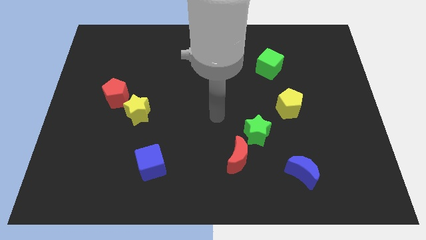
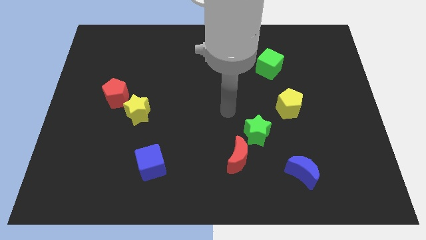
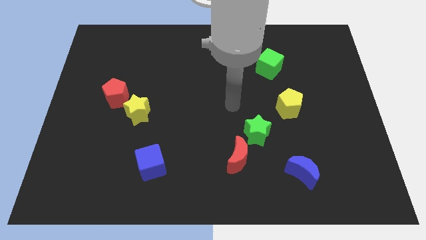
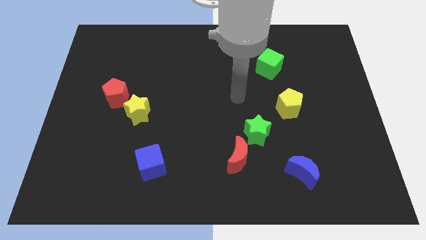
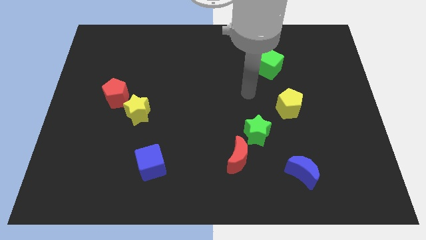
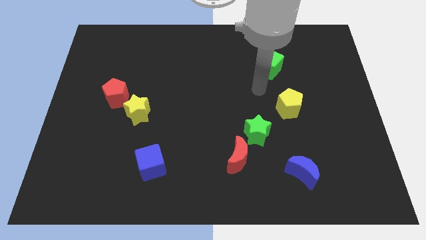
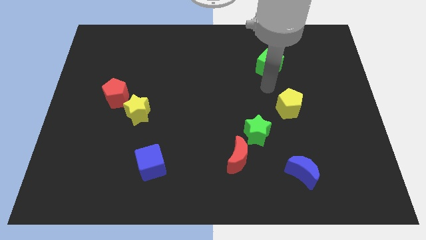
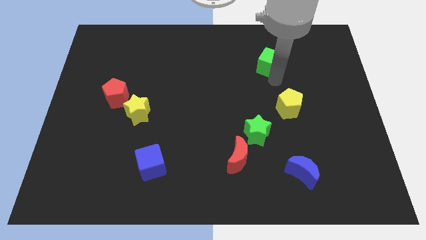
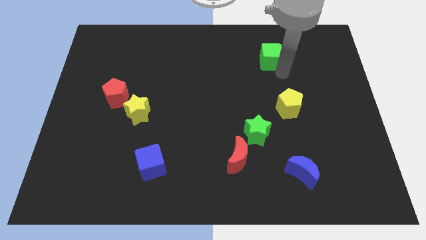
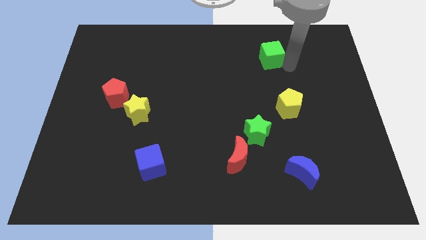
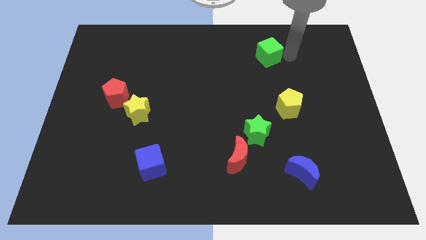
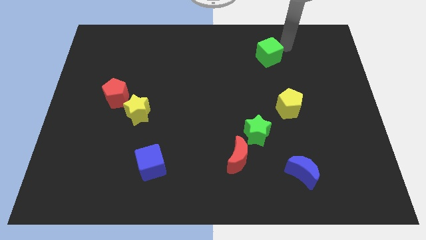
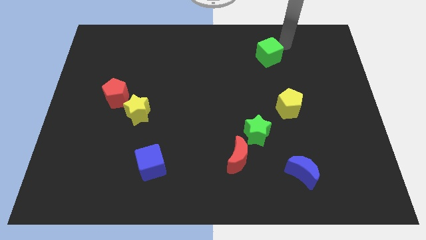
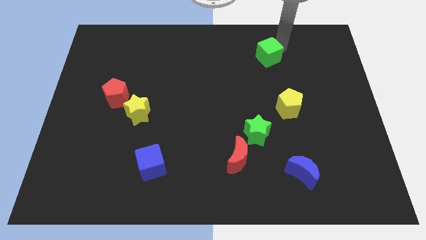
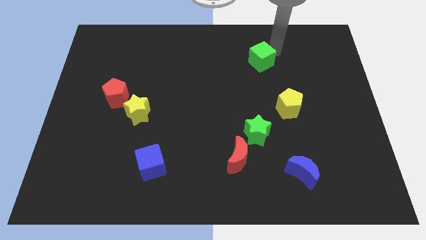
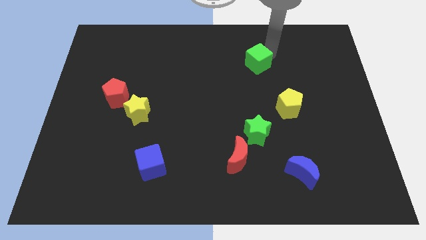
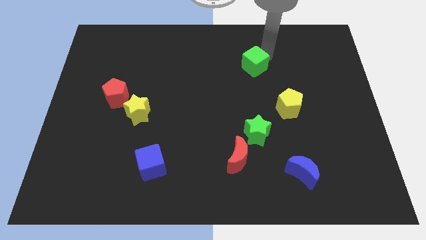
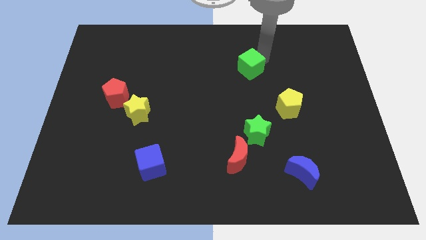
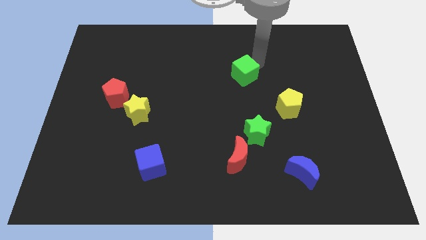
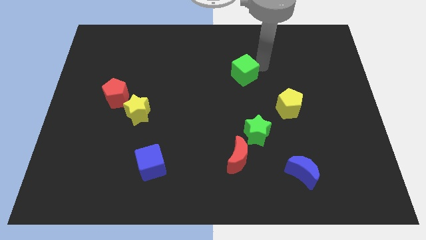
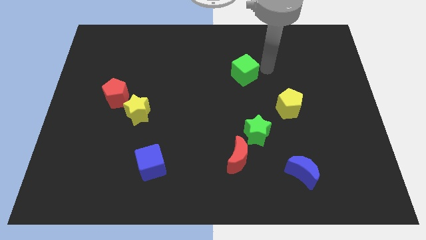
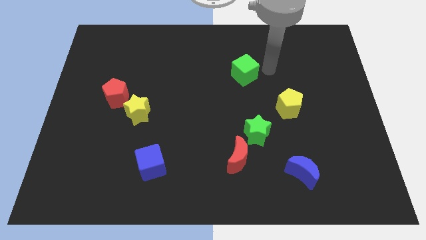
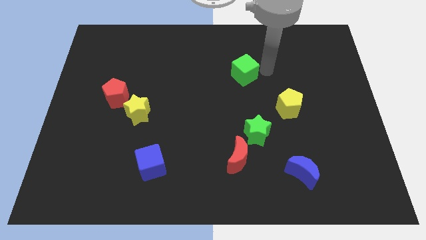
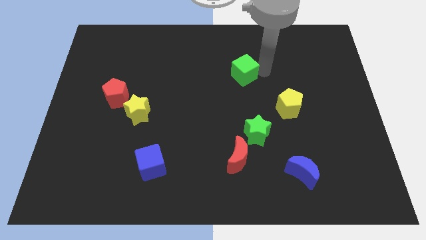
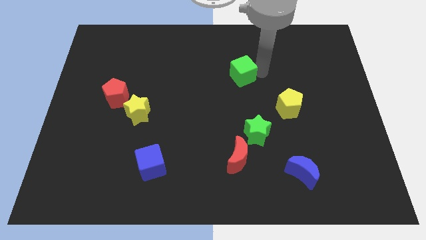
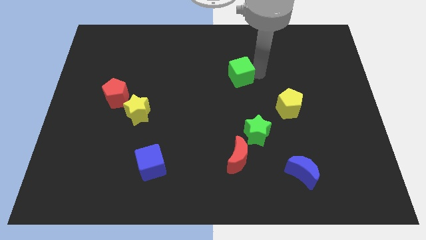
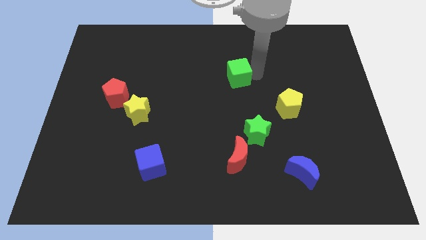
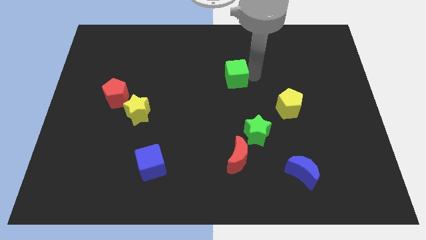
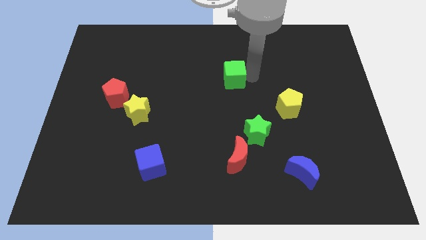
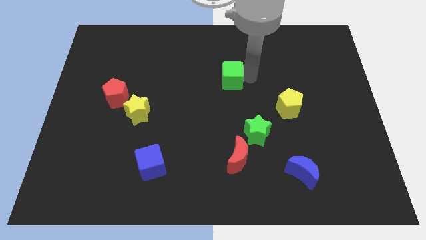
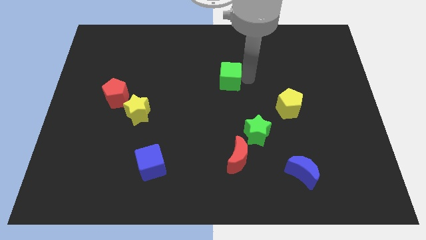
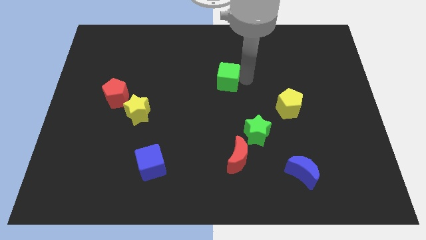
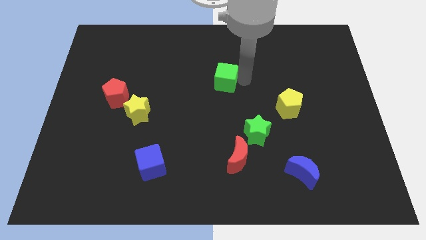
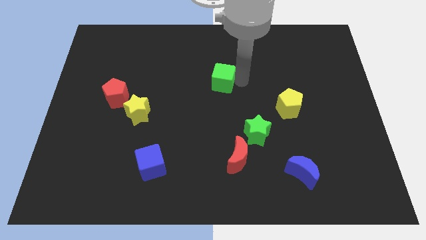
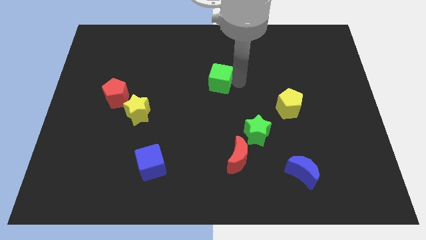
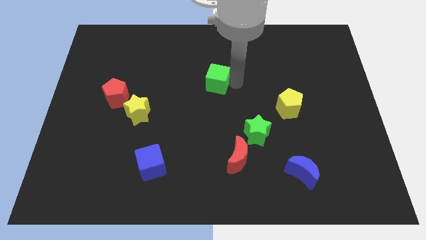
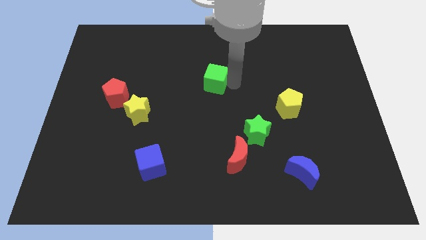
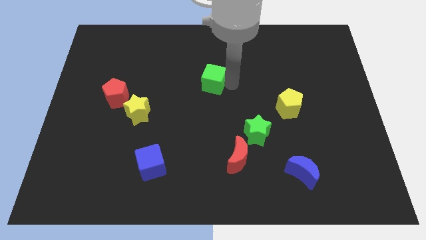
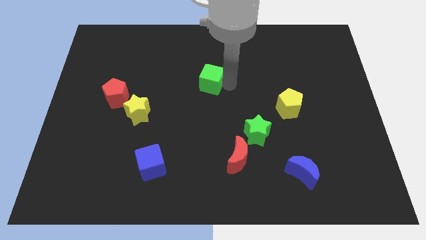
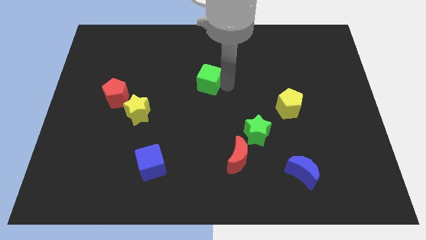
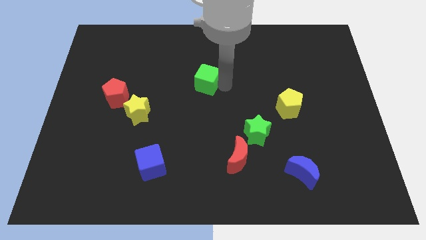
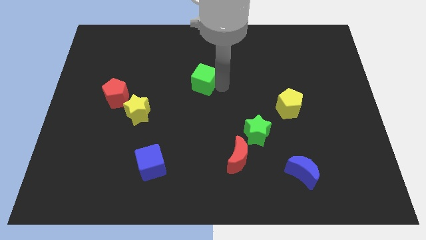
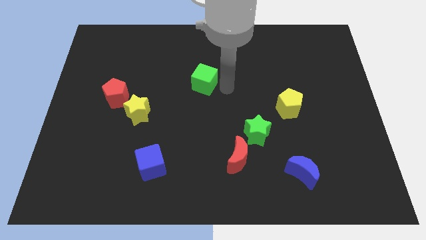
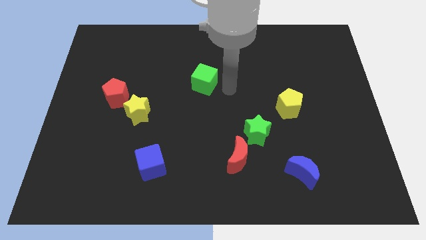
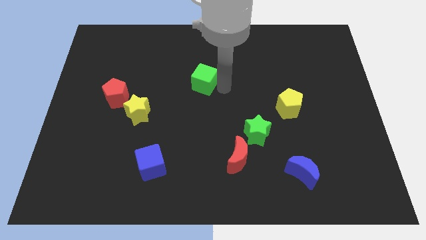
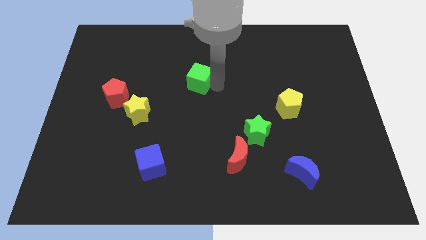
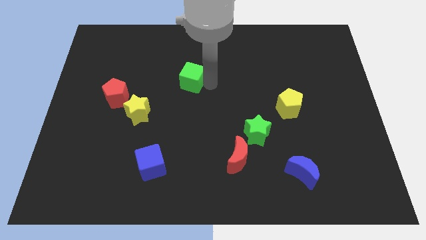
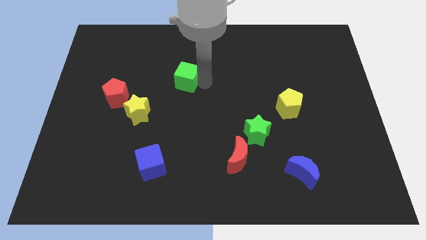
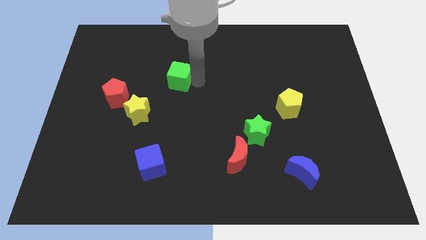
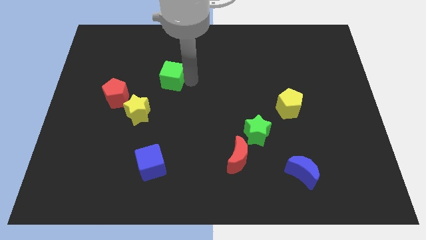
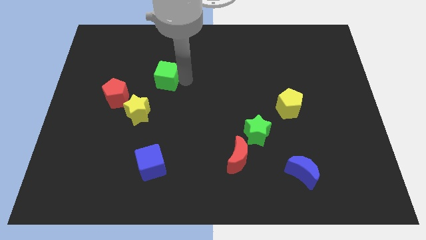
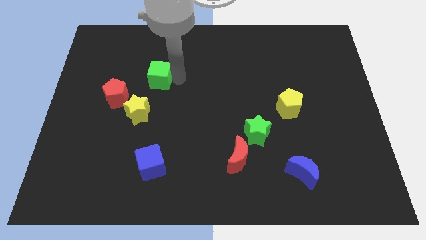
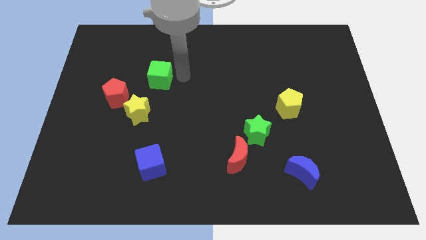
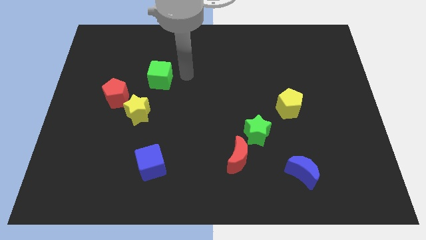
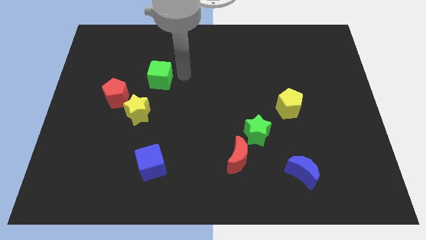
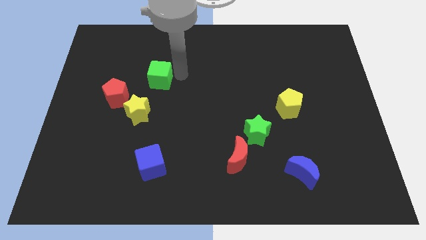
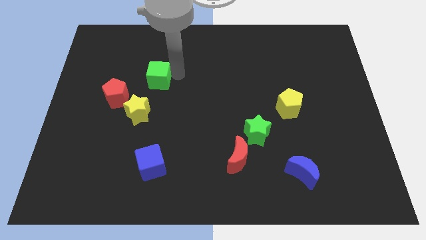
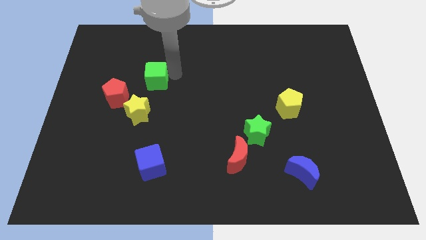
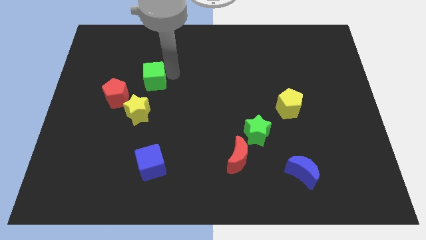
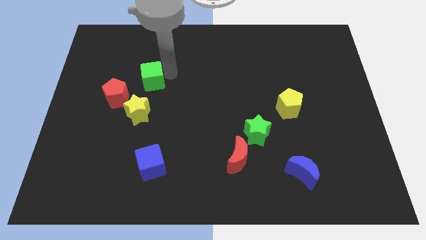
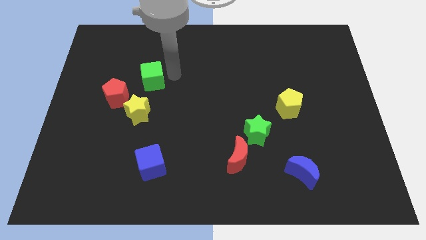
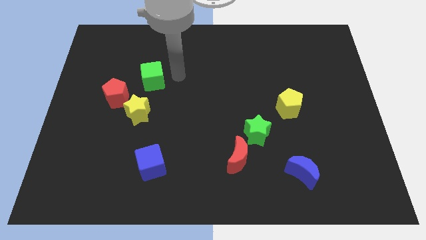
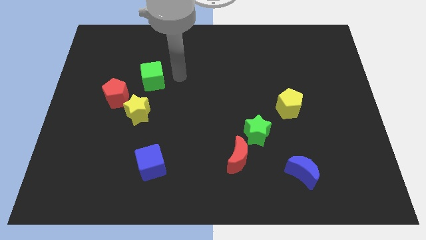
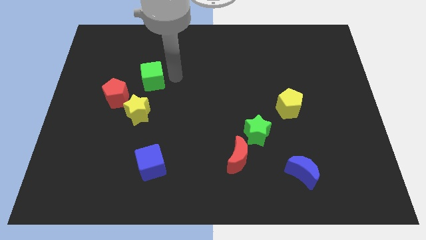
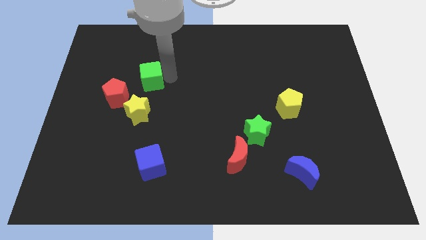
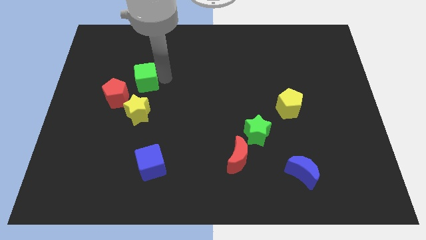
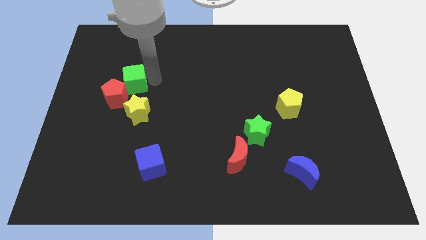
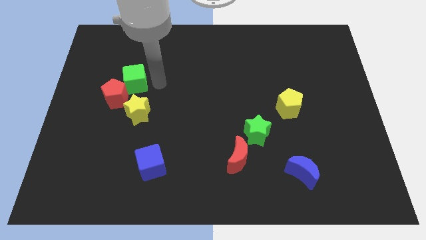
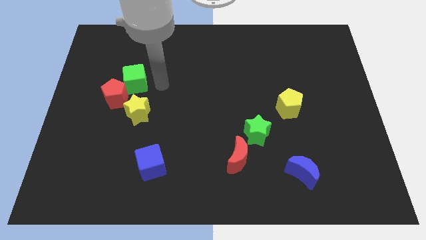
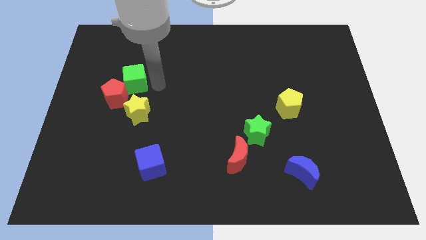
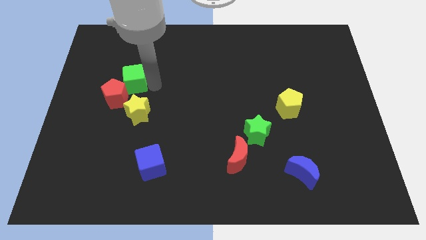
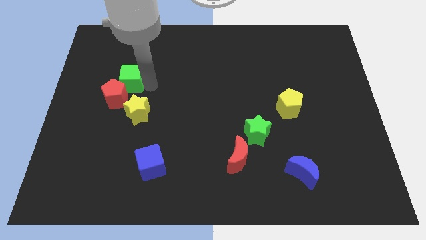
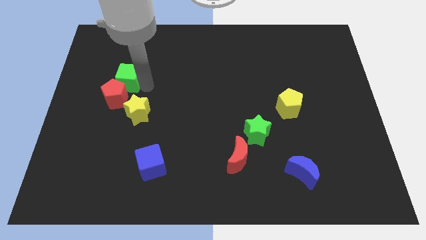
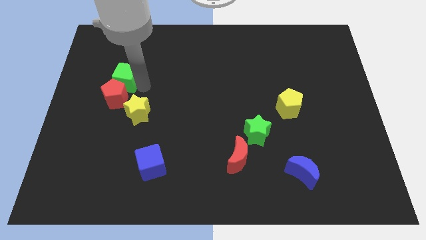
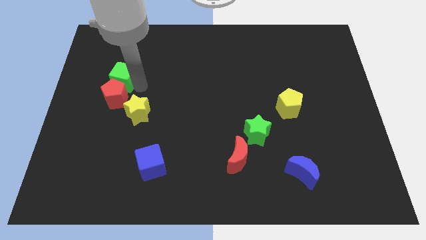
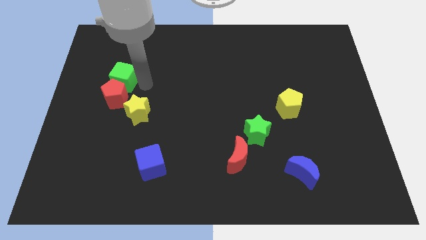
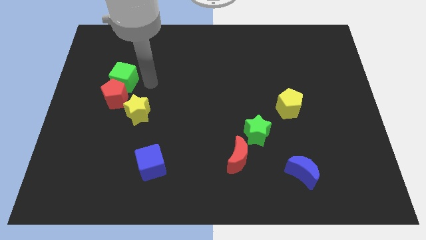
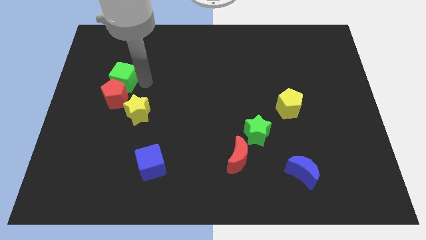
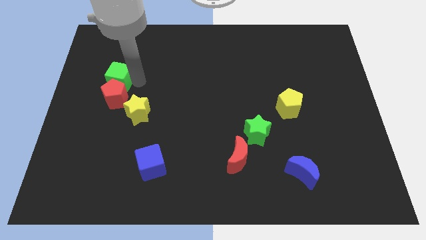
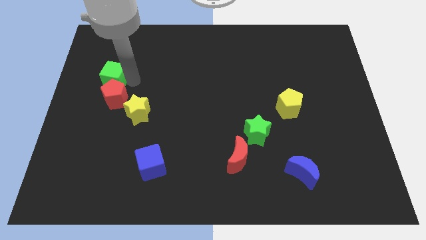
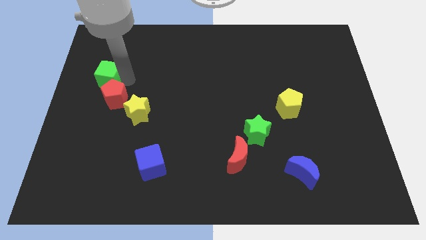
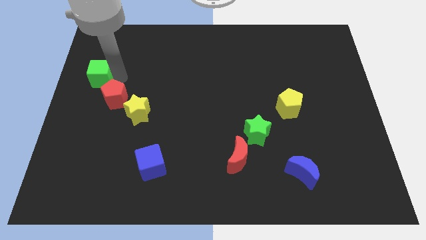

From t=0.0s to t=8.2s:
put the green cube to the left side
